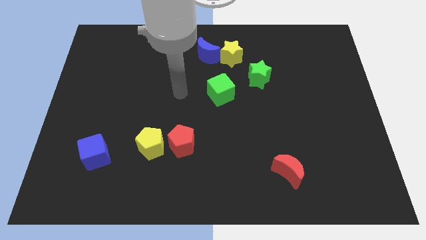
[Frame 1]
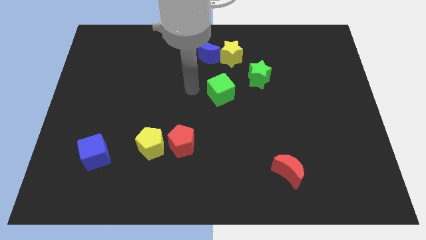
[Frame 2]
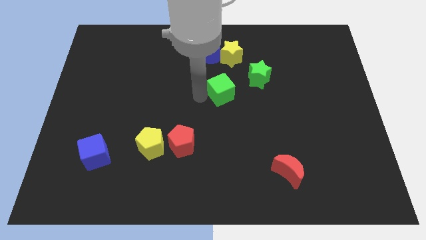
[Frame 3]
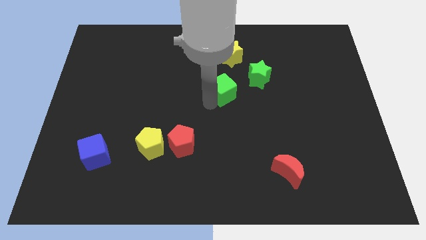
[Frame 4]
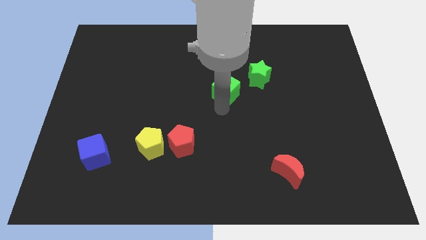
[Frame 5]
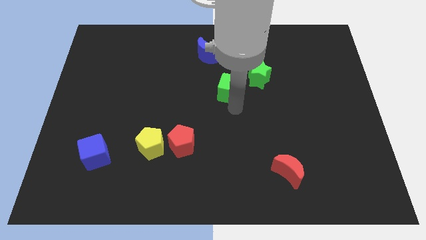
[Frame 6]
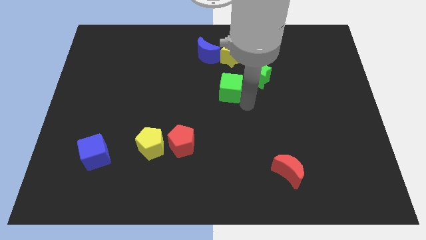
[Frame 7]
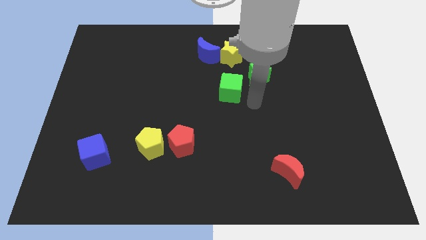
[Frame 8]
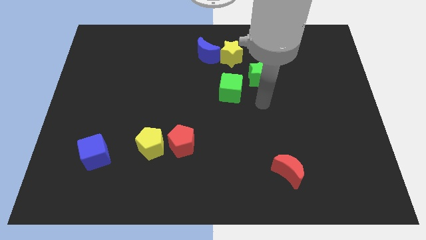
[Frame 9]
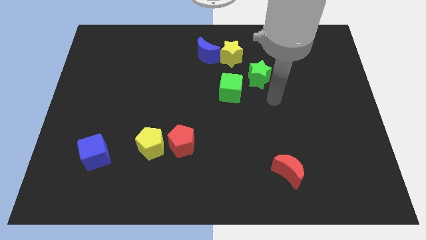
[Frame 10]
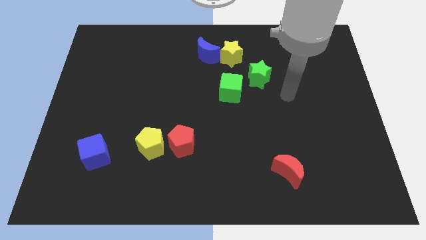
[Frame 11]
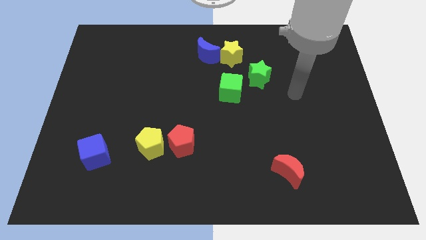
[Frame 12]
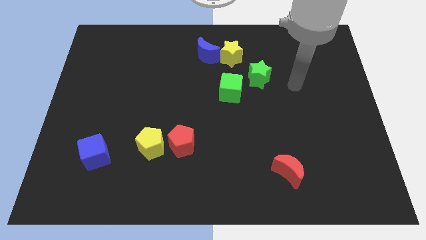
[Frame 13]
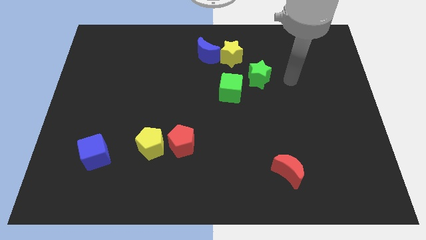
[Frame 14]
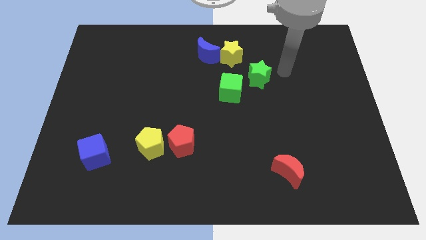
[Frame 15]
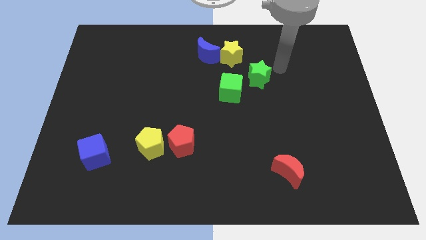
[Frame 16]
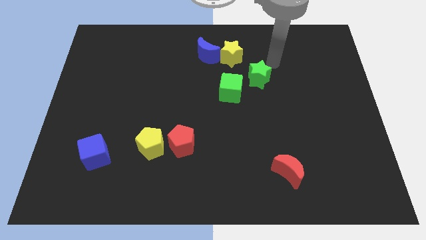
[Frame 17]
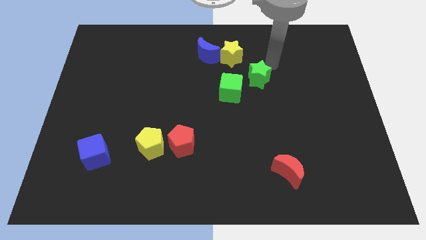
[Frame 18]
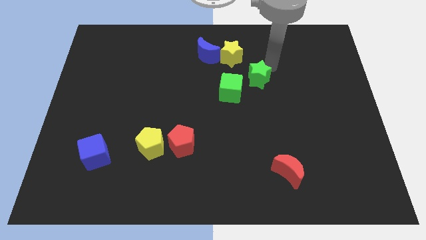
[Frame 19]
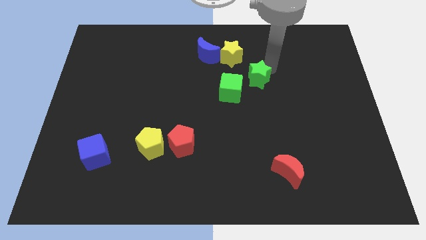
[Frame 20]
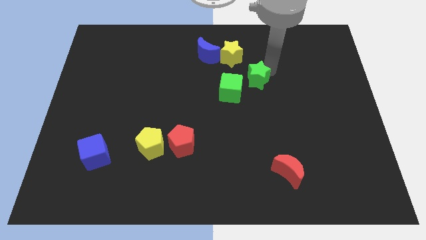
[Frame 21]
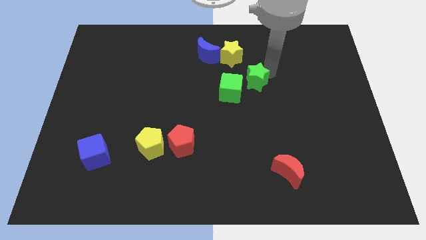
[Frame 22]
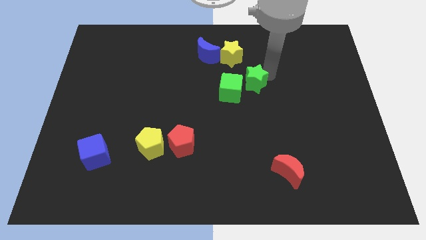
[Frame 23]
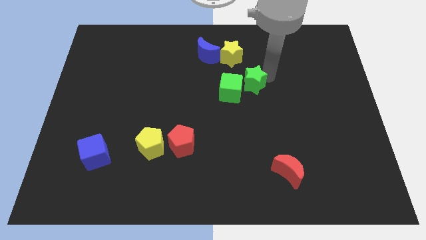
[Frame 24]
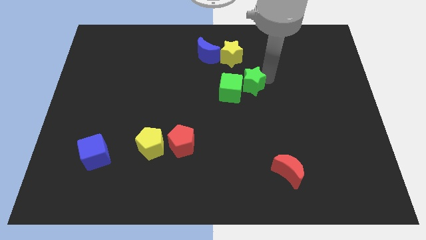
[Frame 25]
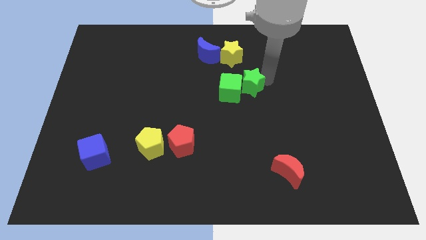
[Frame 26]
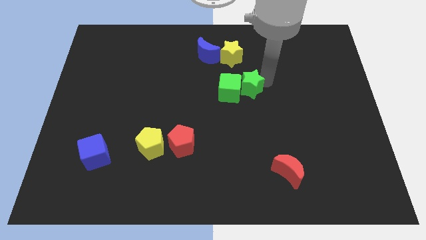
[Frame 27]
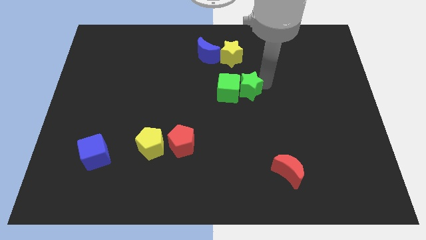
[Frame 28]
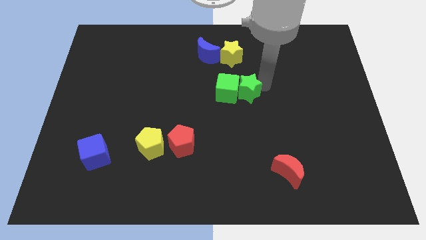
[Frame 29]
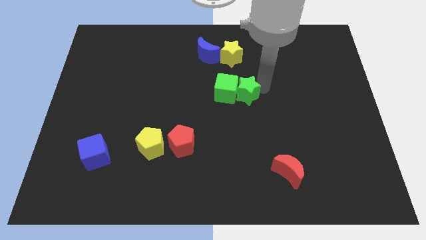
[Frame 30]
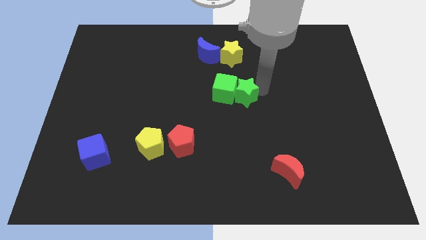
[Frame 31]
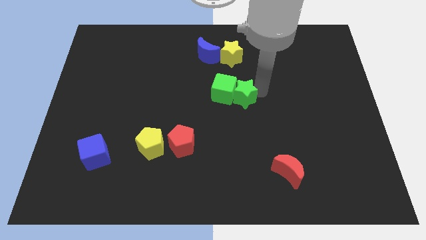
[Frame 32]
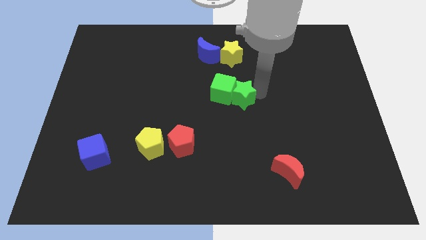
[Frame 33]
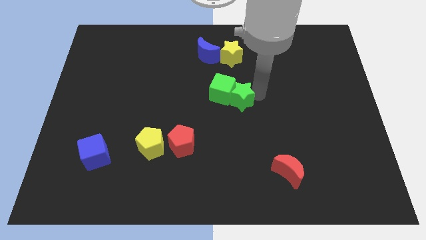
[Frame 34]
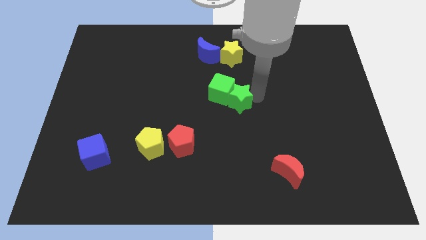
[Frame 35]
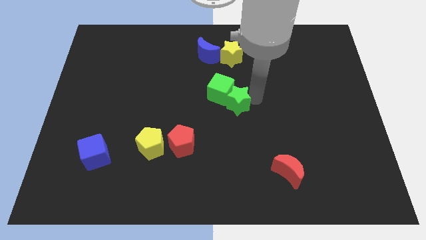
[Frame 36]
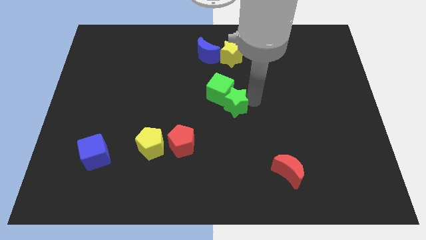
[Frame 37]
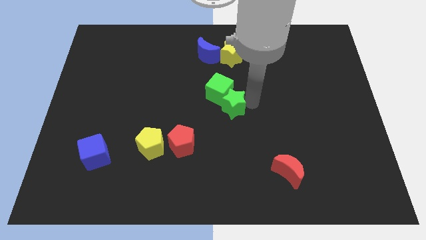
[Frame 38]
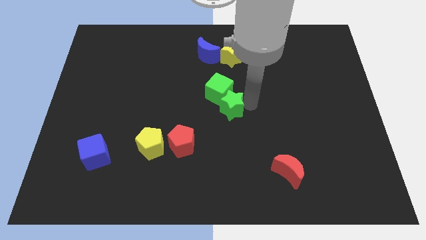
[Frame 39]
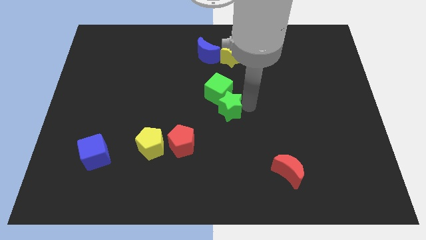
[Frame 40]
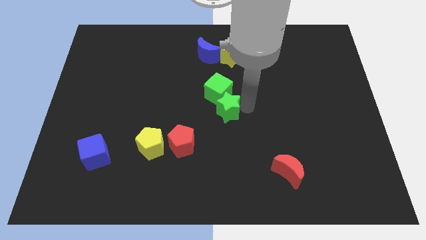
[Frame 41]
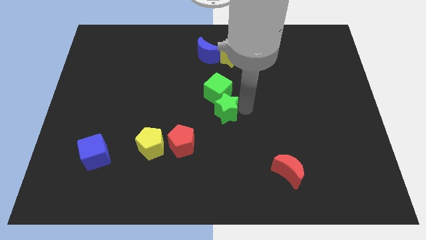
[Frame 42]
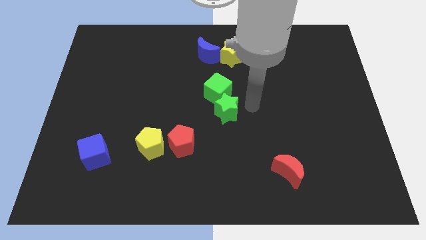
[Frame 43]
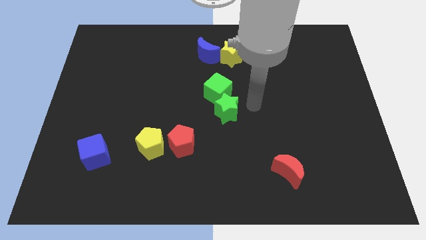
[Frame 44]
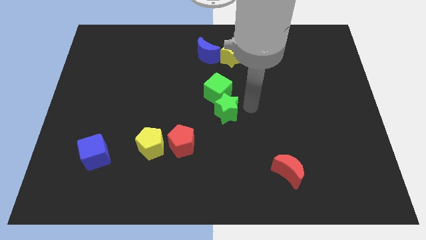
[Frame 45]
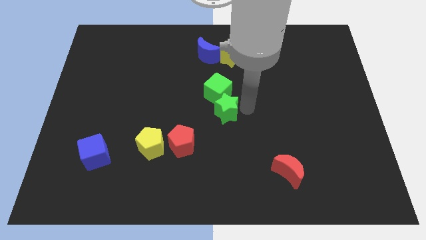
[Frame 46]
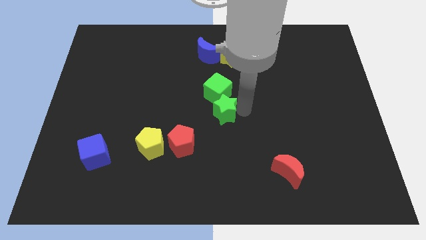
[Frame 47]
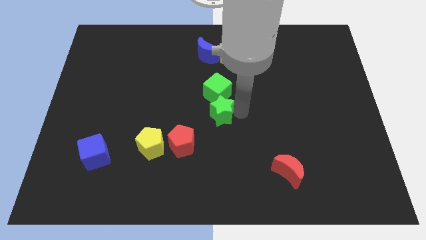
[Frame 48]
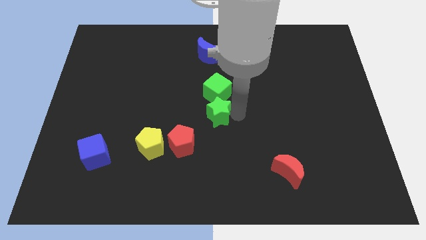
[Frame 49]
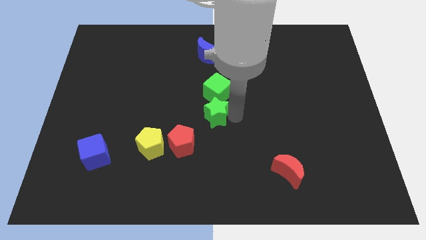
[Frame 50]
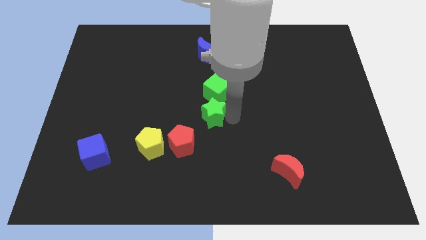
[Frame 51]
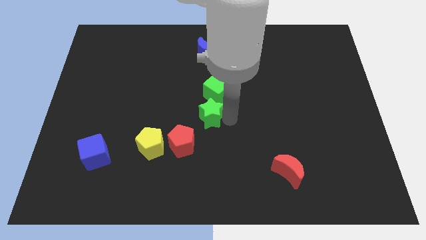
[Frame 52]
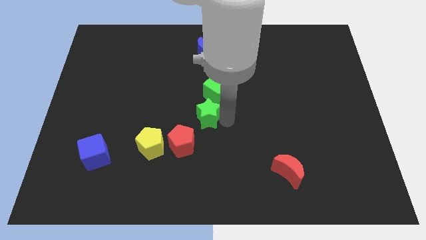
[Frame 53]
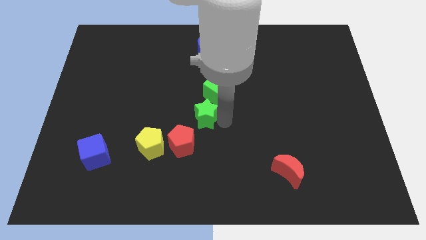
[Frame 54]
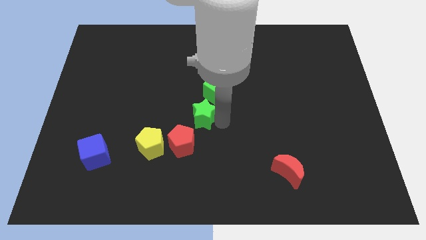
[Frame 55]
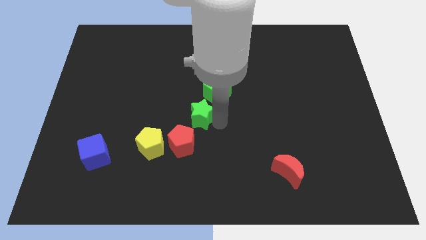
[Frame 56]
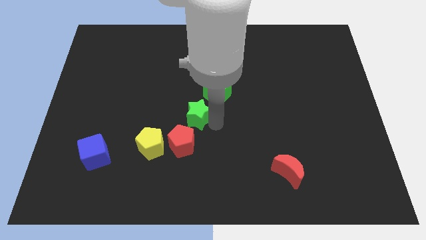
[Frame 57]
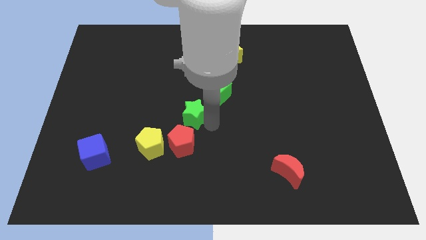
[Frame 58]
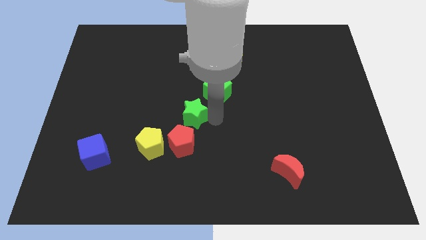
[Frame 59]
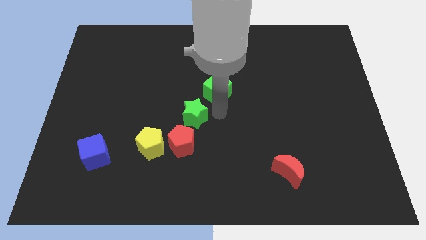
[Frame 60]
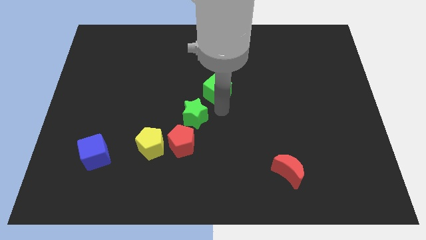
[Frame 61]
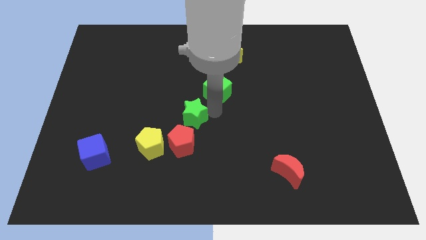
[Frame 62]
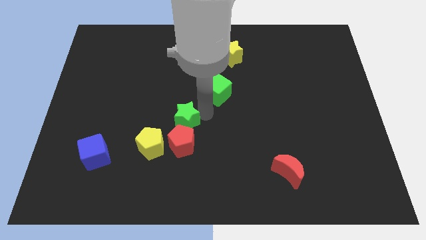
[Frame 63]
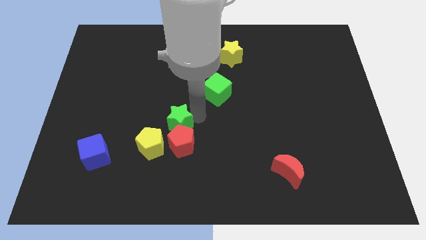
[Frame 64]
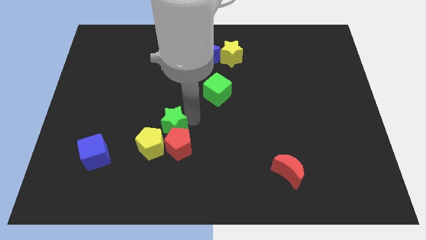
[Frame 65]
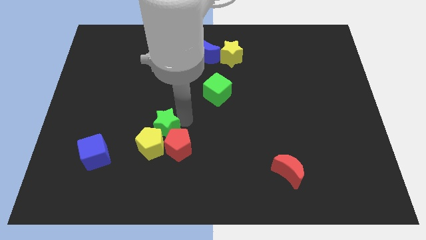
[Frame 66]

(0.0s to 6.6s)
move the green star next to the yellow pentagon

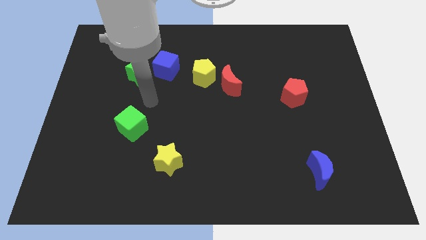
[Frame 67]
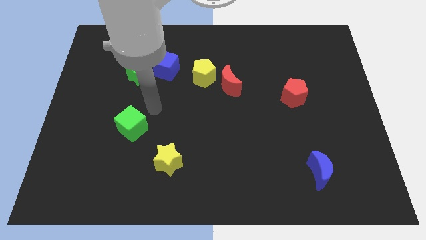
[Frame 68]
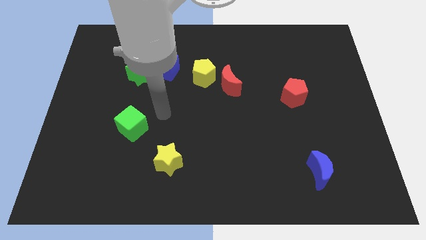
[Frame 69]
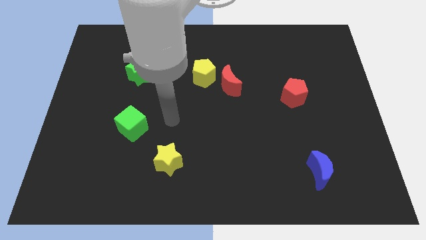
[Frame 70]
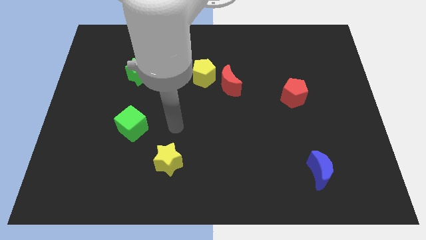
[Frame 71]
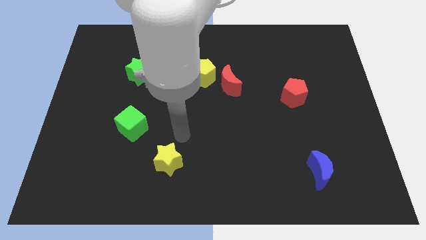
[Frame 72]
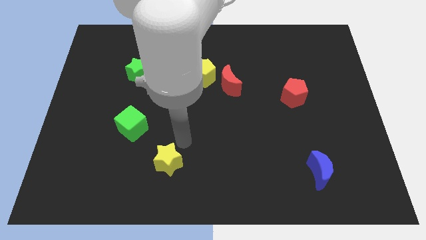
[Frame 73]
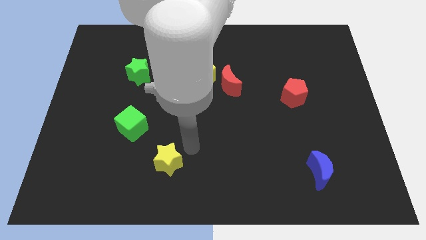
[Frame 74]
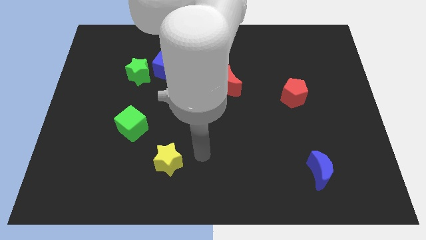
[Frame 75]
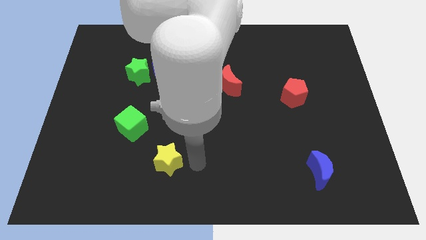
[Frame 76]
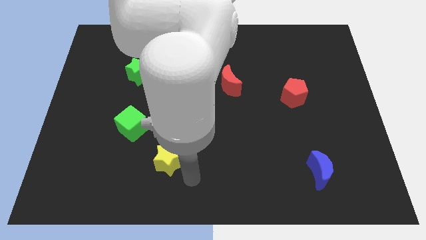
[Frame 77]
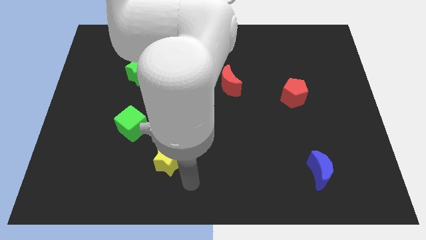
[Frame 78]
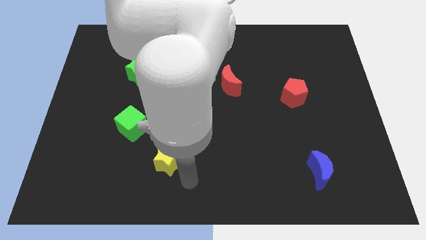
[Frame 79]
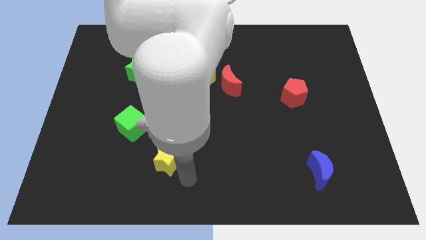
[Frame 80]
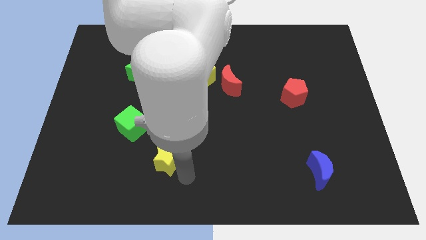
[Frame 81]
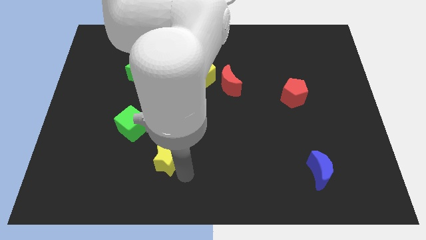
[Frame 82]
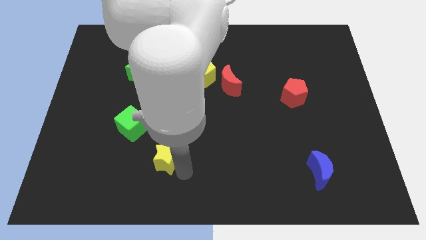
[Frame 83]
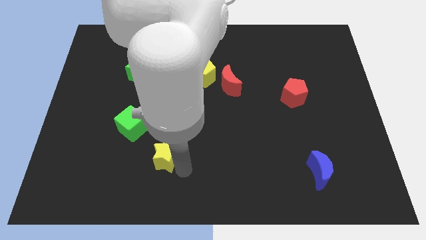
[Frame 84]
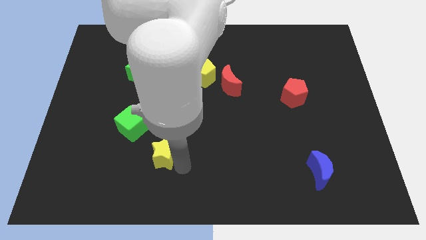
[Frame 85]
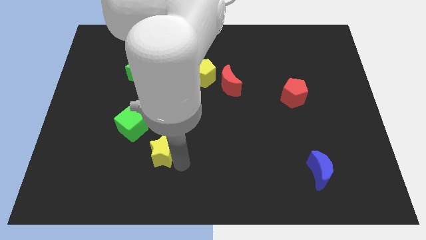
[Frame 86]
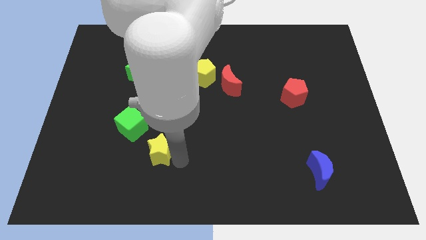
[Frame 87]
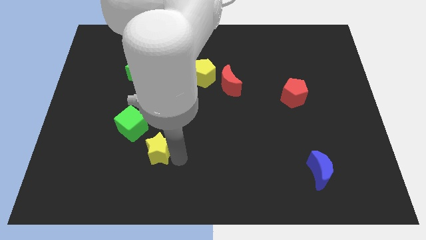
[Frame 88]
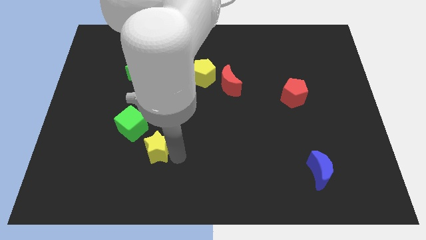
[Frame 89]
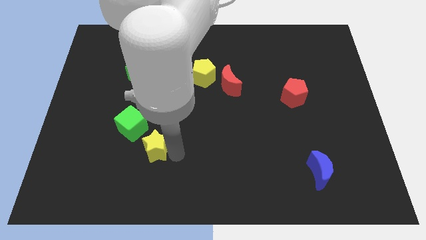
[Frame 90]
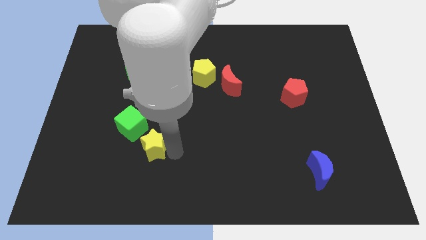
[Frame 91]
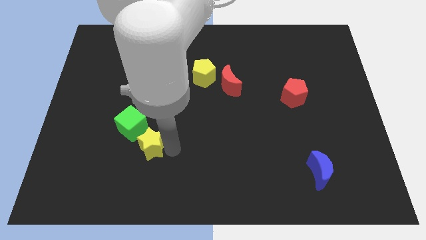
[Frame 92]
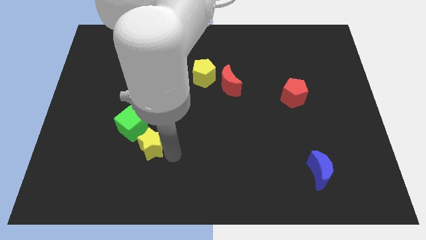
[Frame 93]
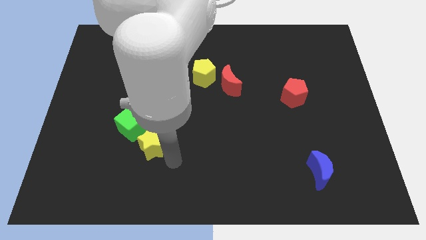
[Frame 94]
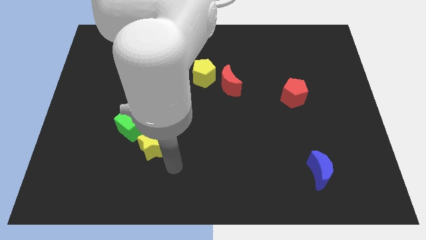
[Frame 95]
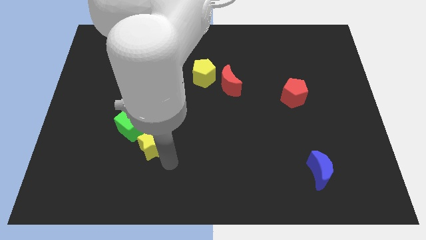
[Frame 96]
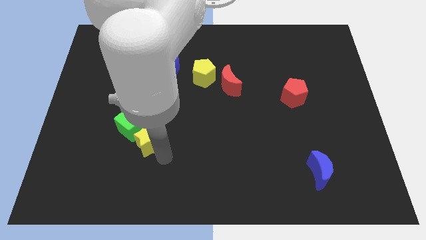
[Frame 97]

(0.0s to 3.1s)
push the yellow star close to the green cube
